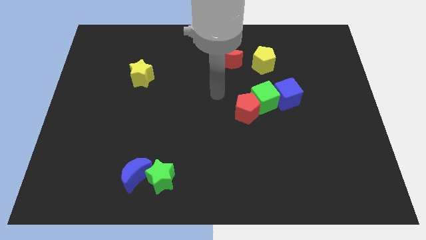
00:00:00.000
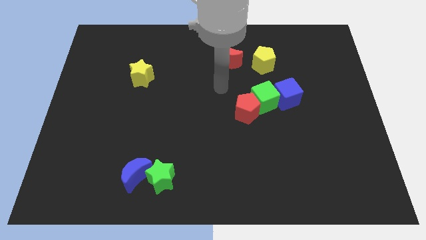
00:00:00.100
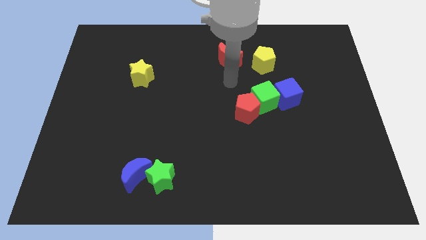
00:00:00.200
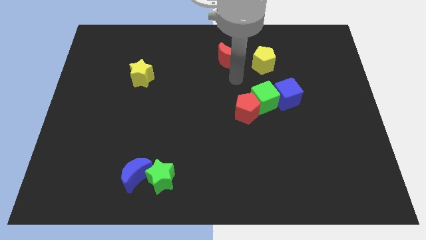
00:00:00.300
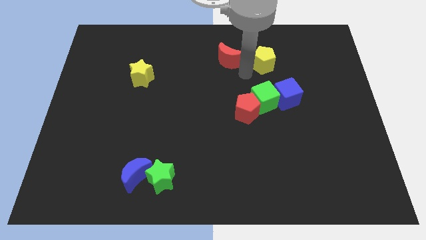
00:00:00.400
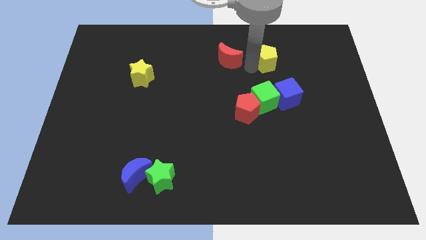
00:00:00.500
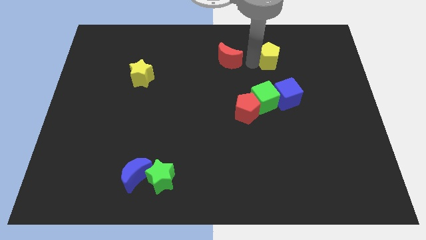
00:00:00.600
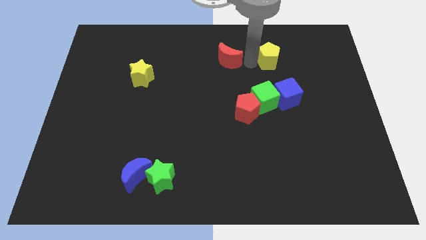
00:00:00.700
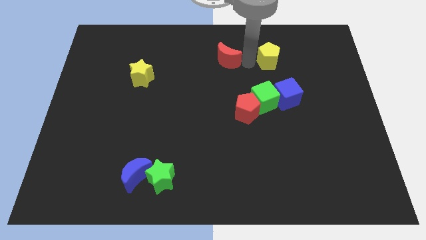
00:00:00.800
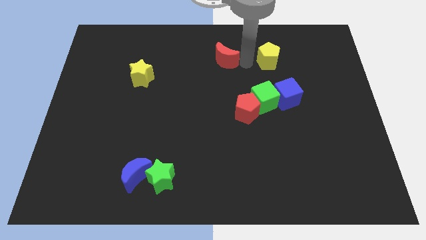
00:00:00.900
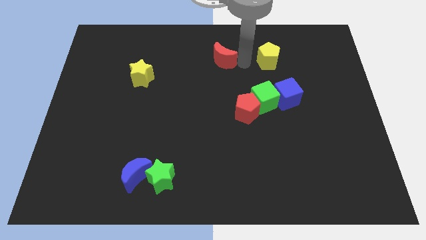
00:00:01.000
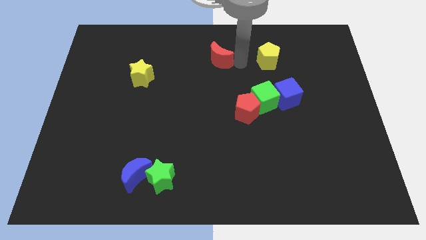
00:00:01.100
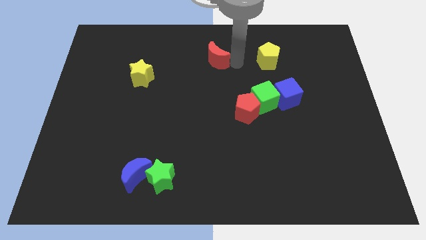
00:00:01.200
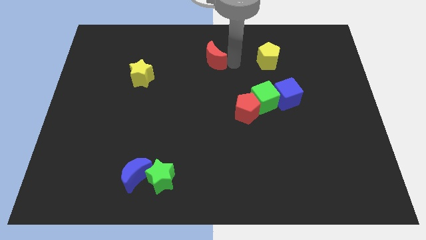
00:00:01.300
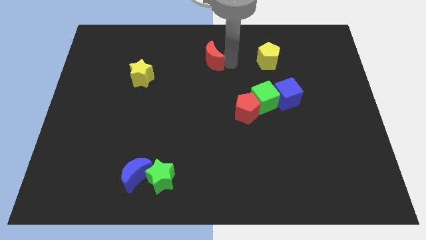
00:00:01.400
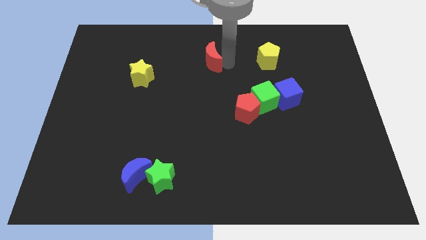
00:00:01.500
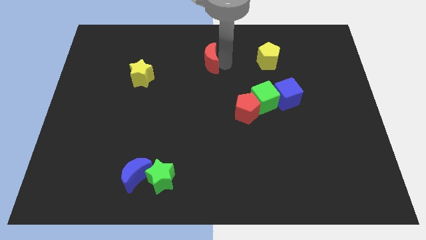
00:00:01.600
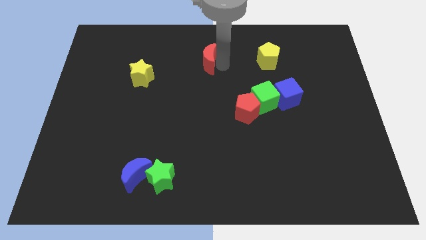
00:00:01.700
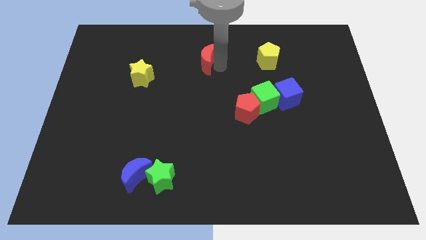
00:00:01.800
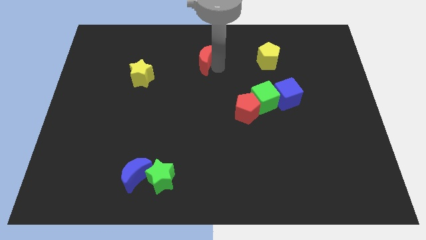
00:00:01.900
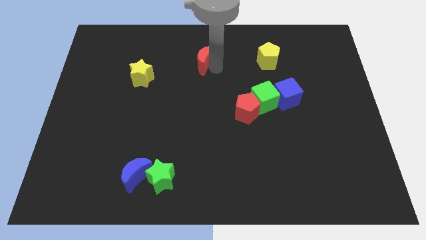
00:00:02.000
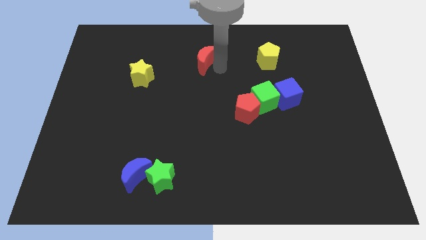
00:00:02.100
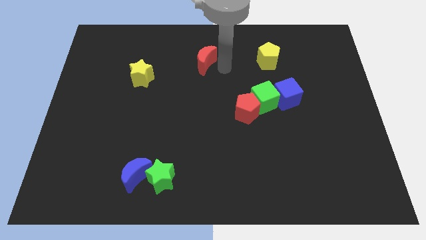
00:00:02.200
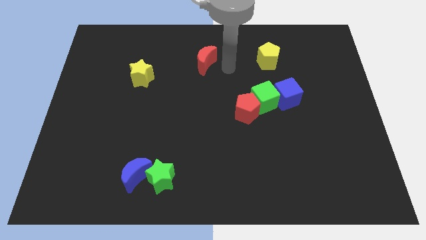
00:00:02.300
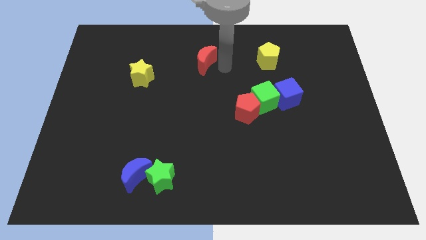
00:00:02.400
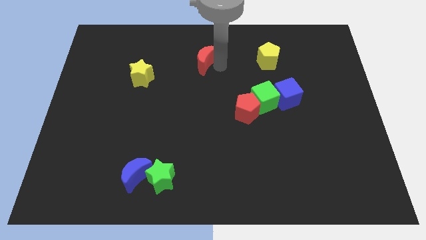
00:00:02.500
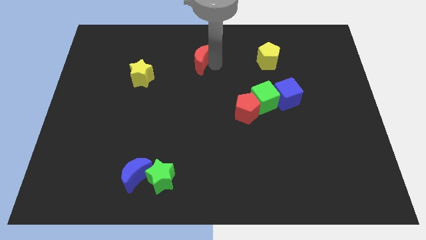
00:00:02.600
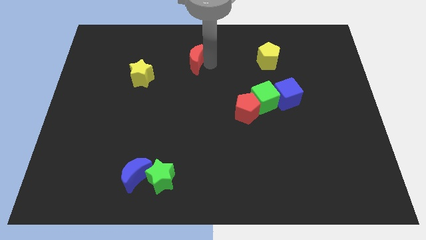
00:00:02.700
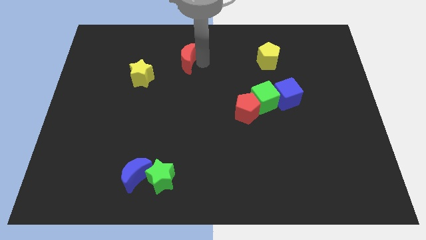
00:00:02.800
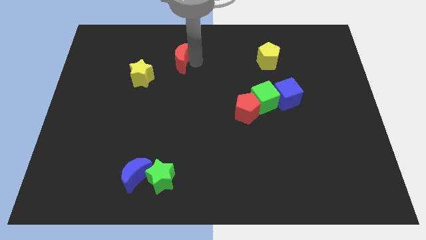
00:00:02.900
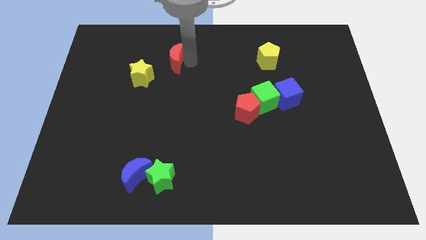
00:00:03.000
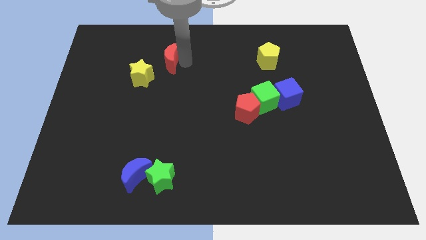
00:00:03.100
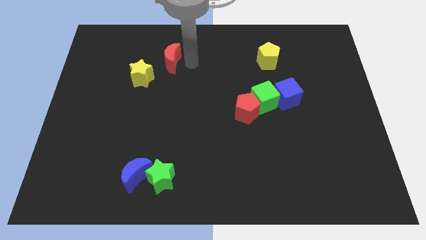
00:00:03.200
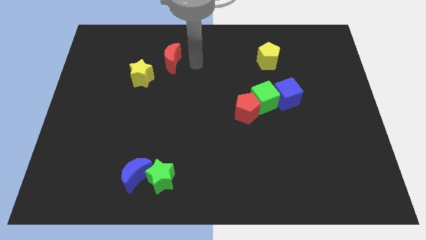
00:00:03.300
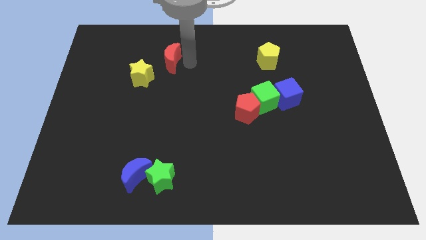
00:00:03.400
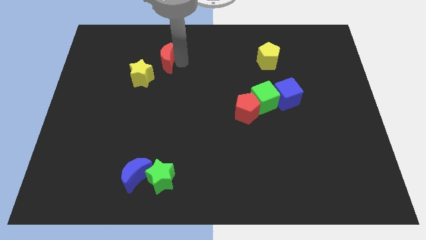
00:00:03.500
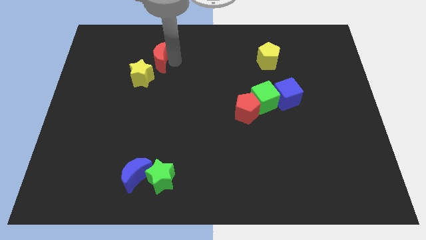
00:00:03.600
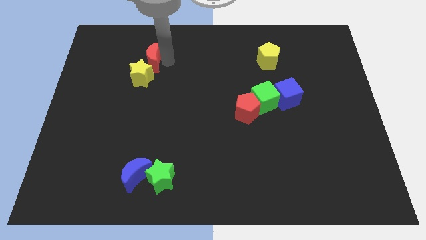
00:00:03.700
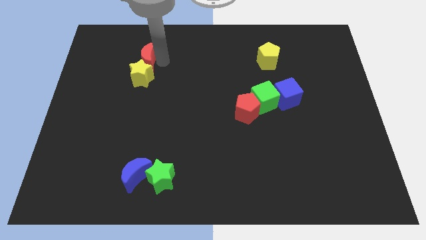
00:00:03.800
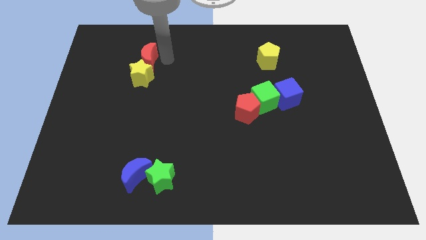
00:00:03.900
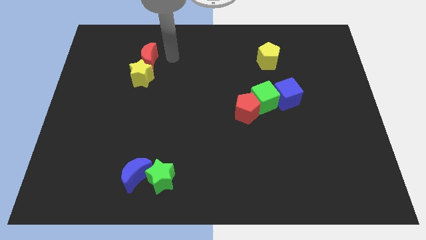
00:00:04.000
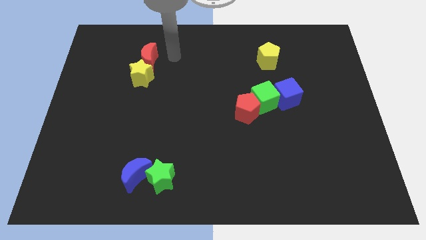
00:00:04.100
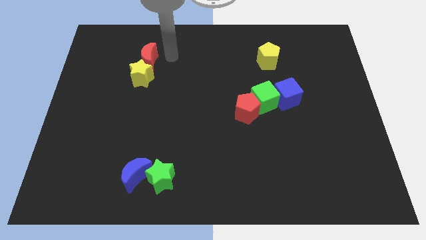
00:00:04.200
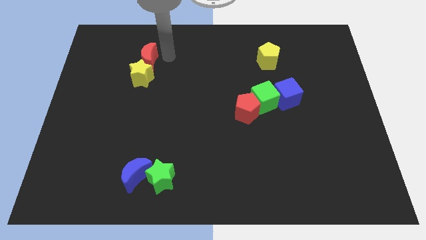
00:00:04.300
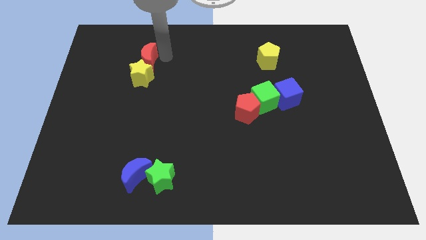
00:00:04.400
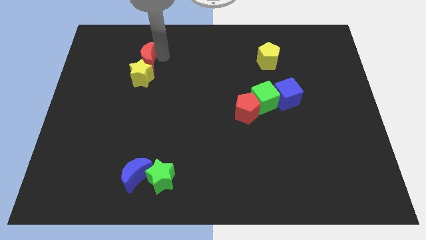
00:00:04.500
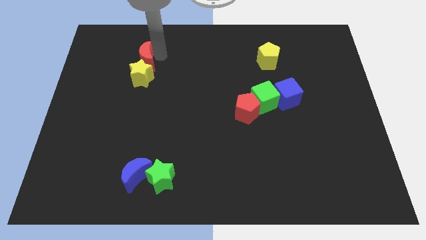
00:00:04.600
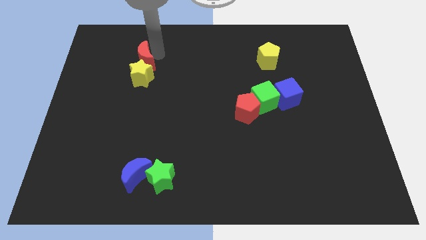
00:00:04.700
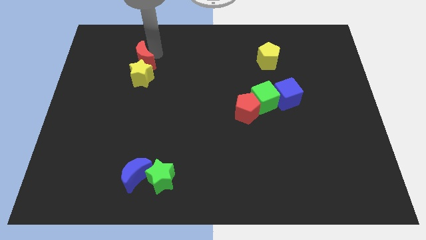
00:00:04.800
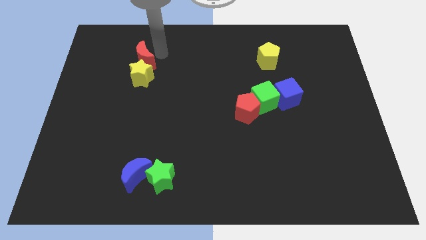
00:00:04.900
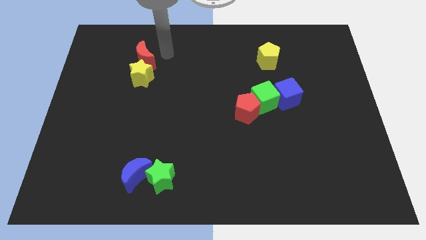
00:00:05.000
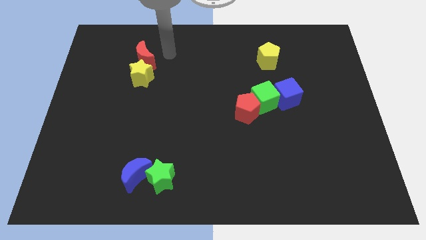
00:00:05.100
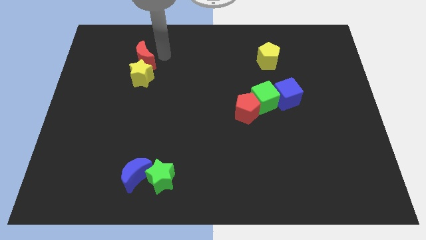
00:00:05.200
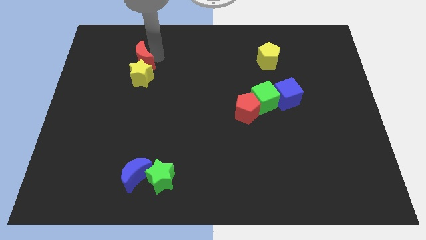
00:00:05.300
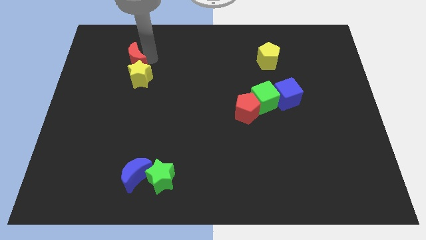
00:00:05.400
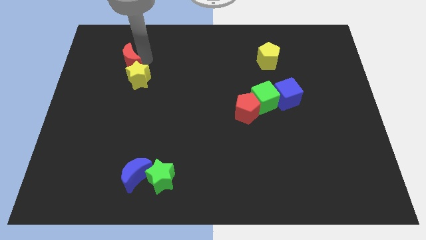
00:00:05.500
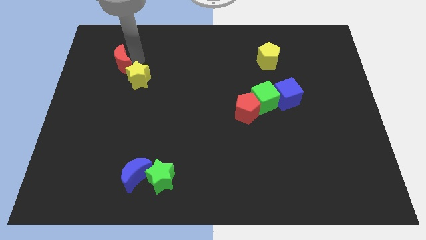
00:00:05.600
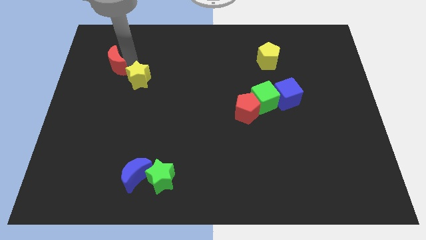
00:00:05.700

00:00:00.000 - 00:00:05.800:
slide the red moon to the left of the yellow star

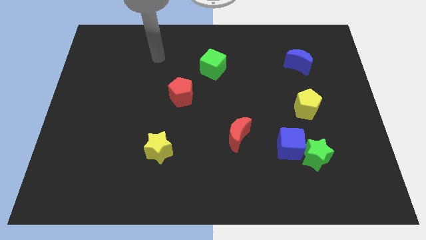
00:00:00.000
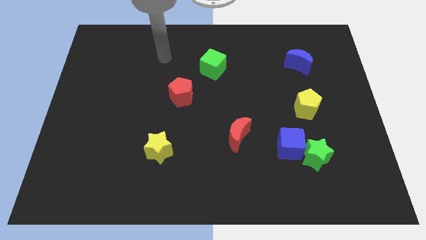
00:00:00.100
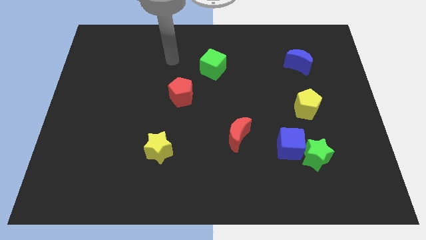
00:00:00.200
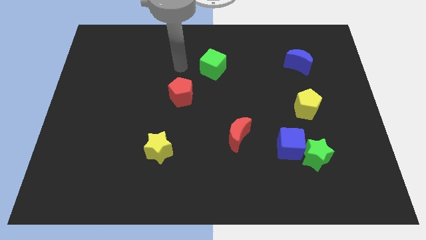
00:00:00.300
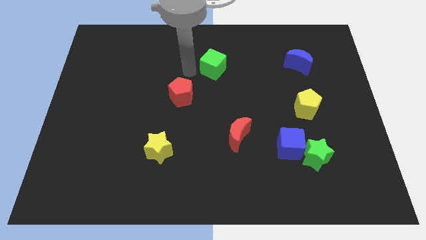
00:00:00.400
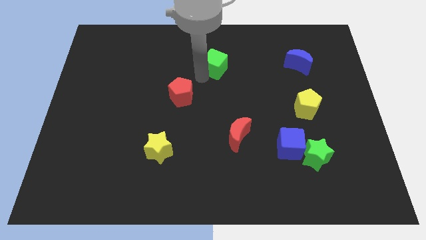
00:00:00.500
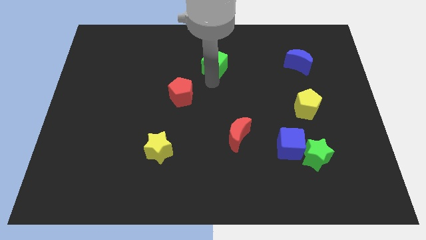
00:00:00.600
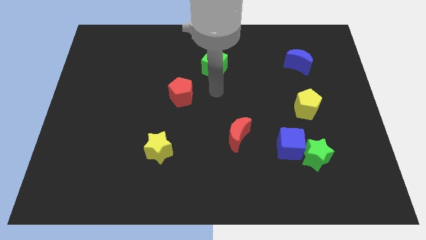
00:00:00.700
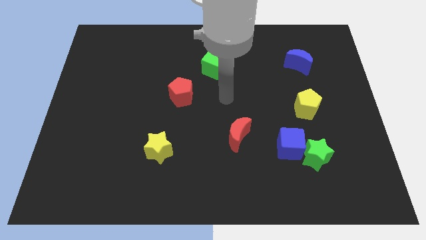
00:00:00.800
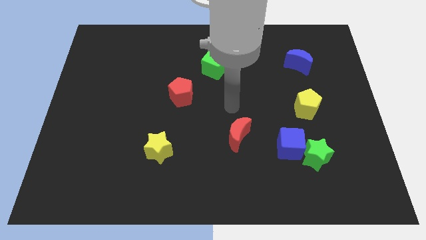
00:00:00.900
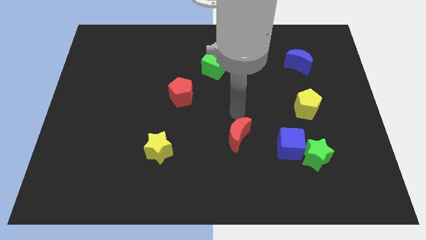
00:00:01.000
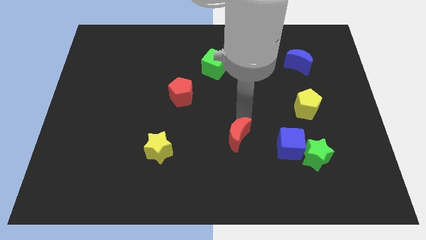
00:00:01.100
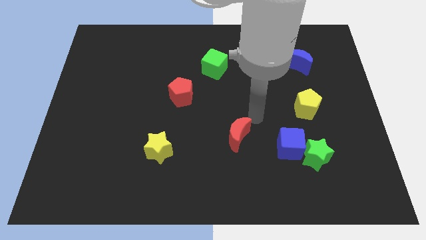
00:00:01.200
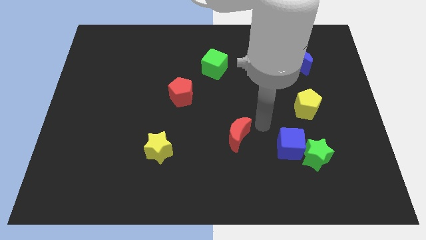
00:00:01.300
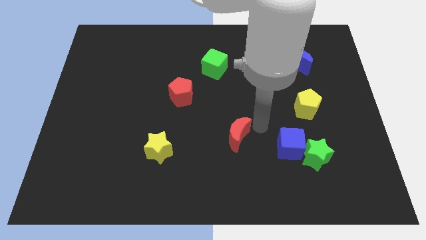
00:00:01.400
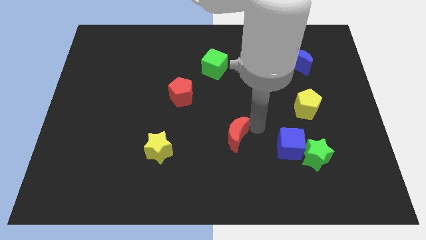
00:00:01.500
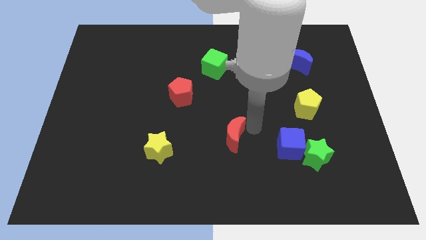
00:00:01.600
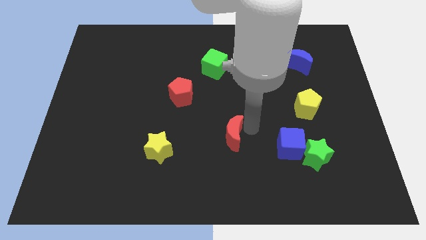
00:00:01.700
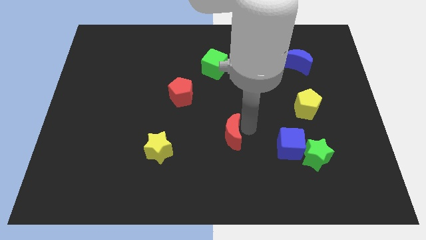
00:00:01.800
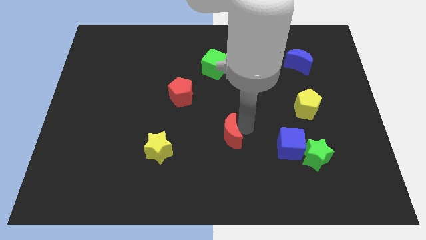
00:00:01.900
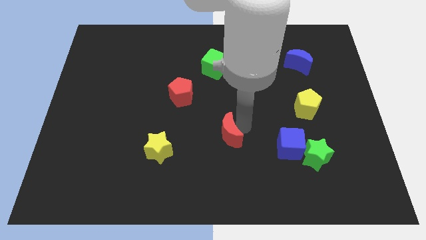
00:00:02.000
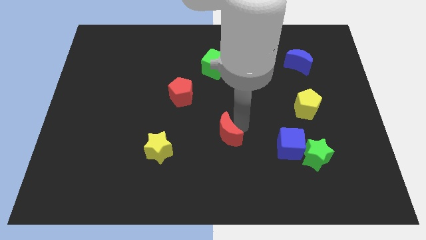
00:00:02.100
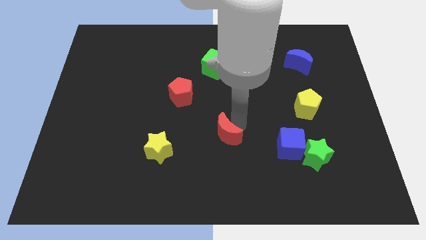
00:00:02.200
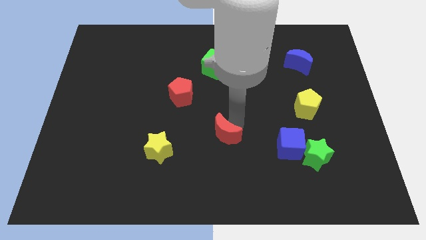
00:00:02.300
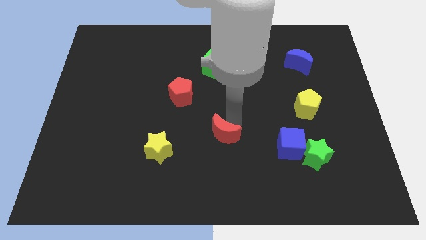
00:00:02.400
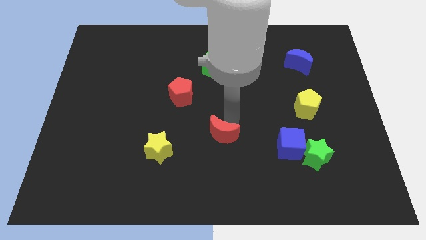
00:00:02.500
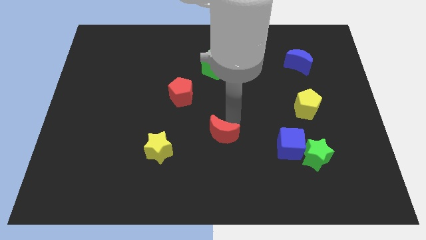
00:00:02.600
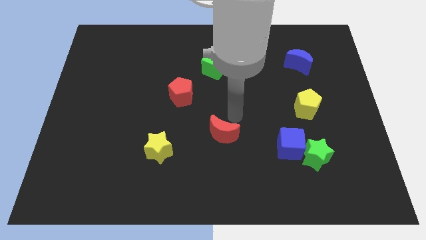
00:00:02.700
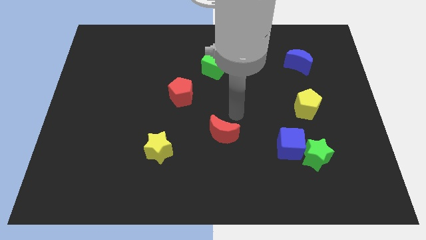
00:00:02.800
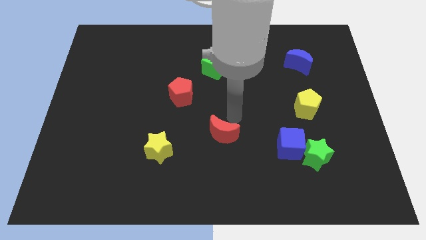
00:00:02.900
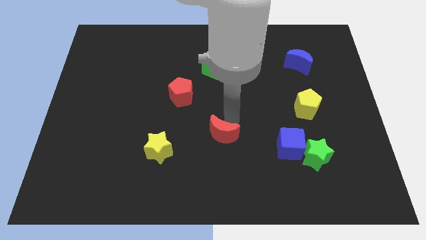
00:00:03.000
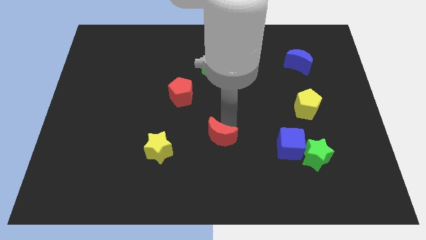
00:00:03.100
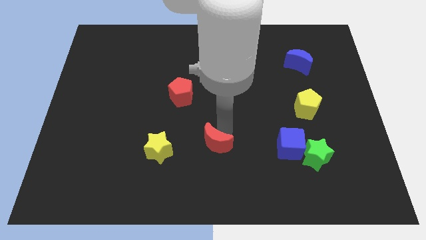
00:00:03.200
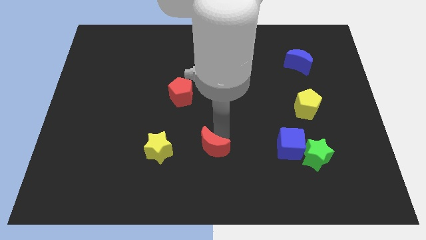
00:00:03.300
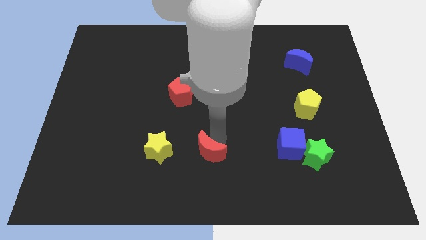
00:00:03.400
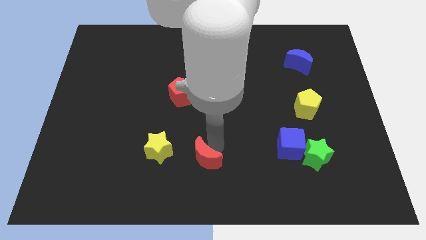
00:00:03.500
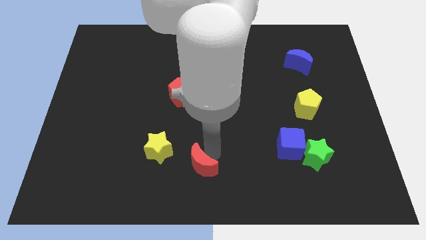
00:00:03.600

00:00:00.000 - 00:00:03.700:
slide the red moon diagonally down and to the right of the yellow star
